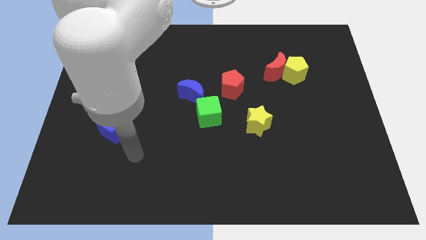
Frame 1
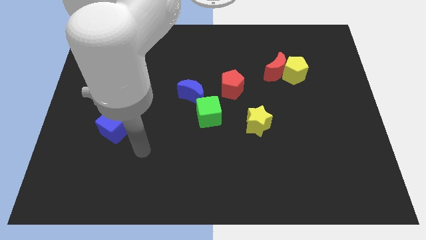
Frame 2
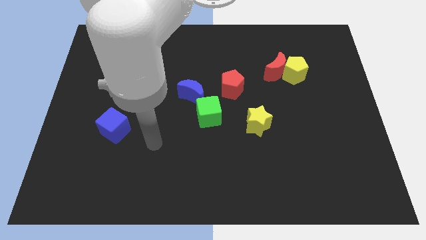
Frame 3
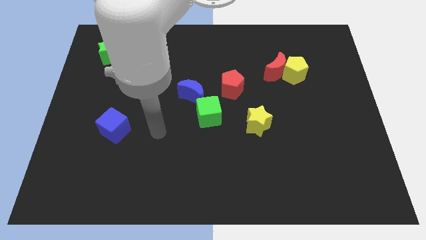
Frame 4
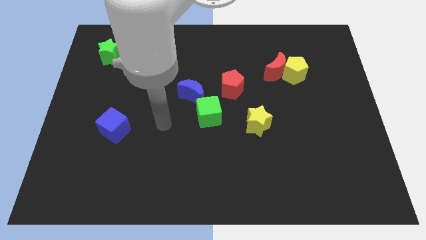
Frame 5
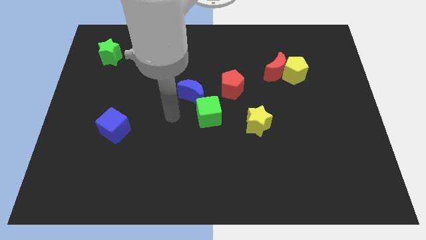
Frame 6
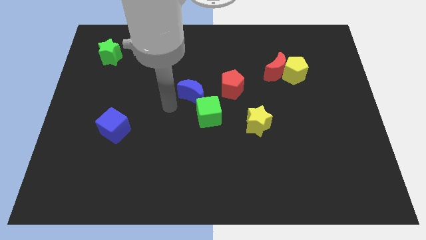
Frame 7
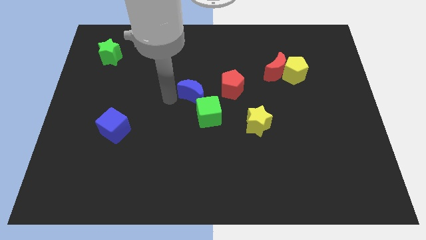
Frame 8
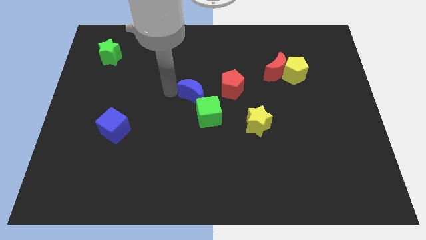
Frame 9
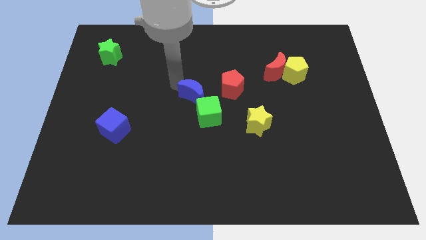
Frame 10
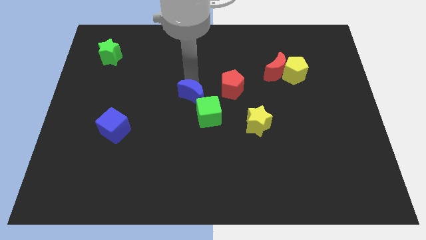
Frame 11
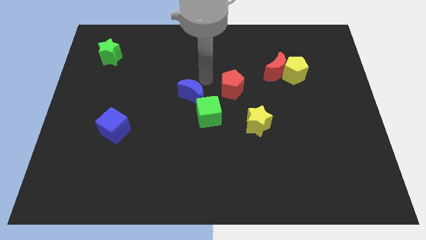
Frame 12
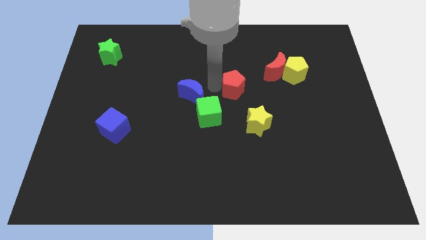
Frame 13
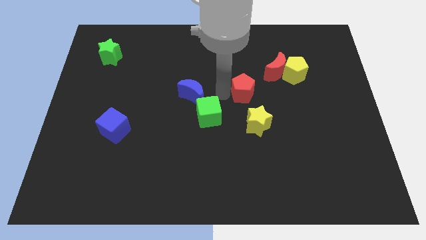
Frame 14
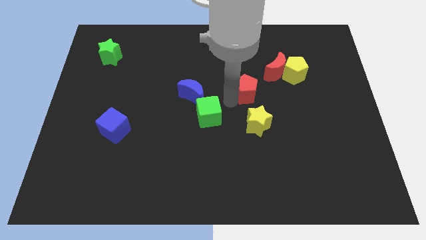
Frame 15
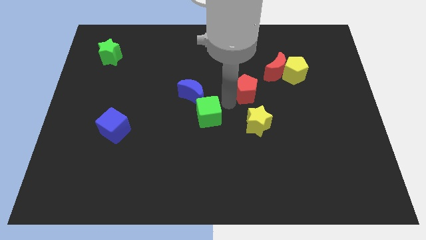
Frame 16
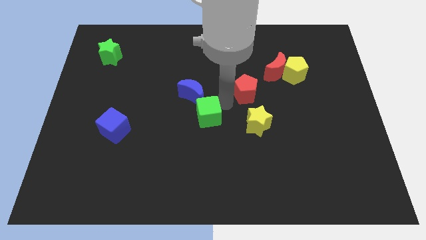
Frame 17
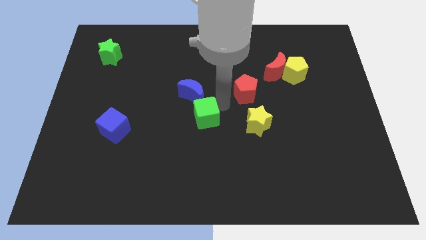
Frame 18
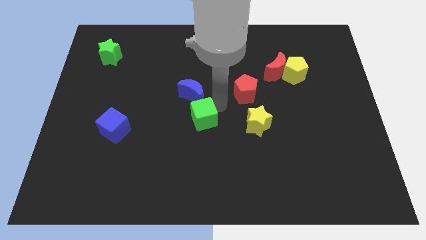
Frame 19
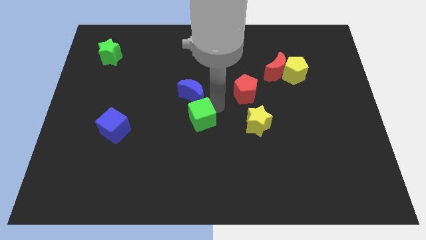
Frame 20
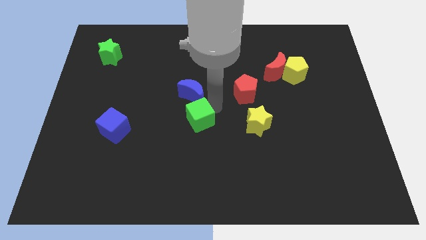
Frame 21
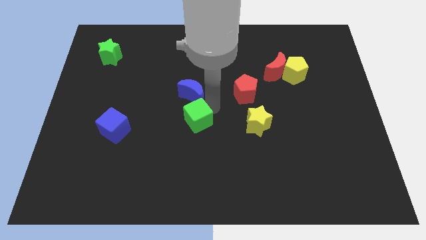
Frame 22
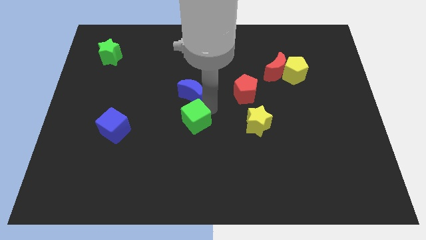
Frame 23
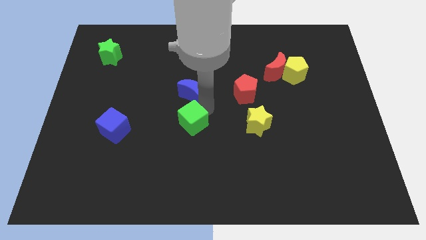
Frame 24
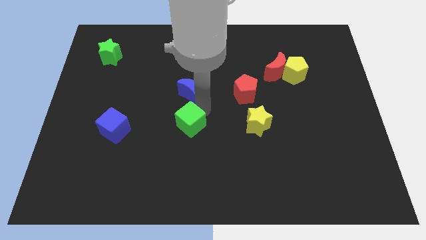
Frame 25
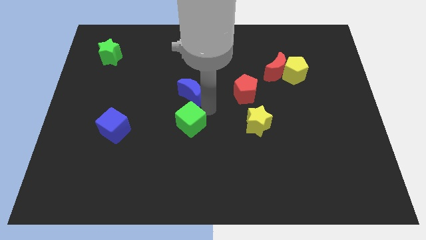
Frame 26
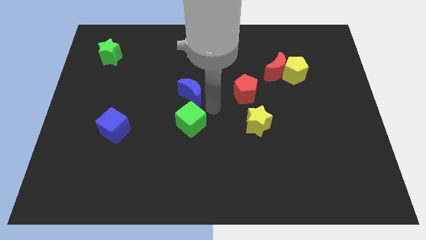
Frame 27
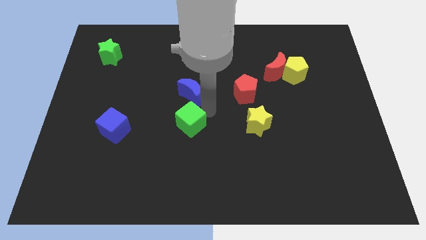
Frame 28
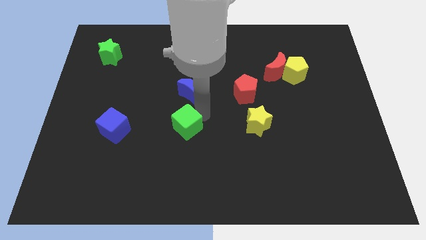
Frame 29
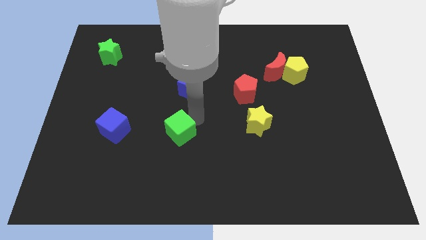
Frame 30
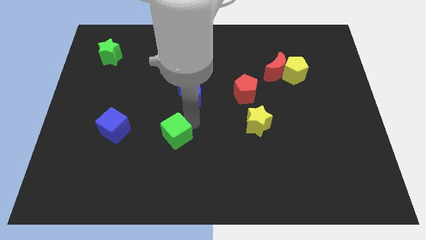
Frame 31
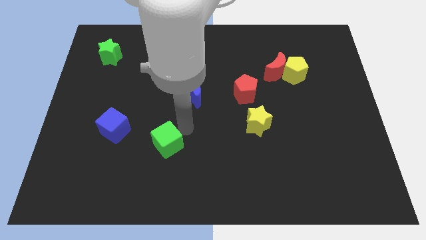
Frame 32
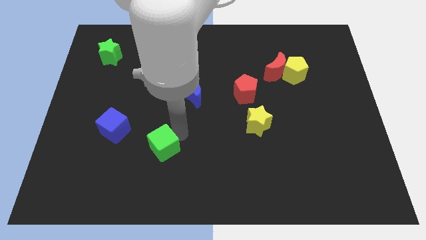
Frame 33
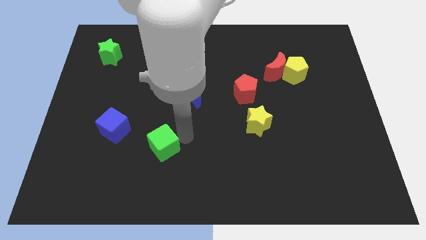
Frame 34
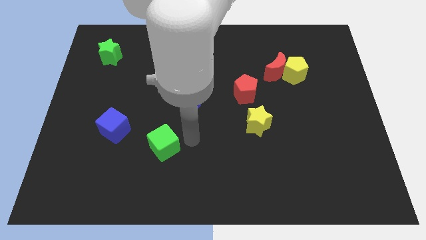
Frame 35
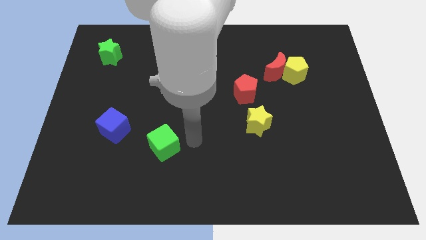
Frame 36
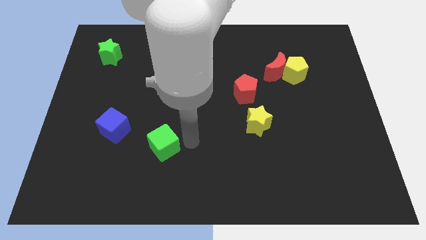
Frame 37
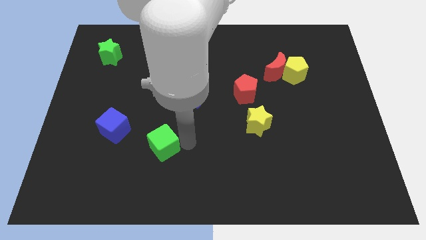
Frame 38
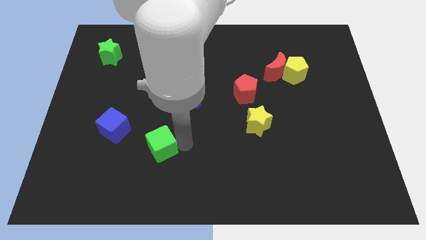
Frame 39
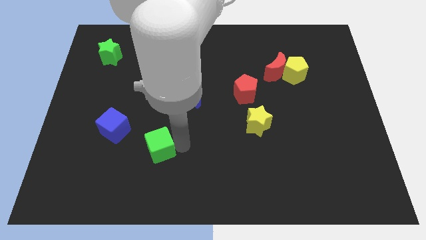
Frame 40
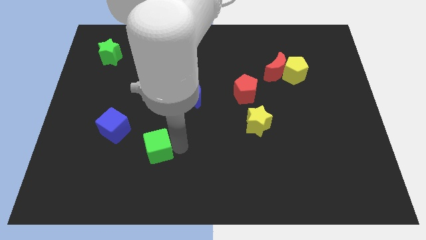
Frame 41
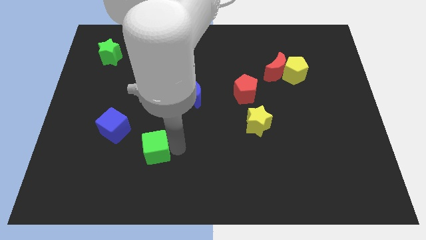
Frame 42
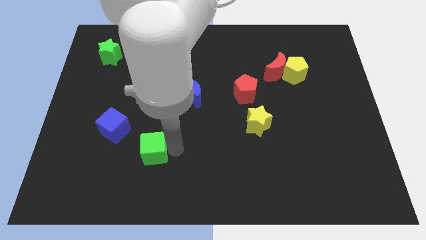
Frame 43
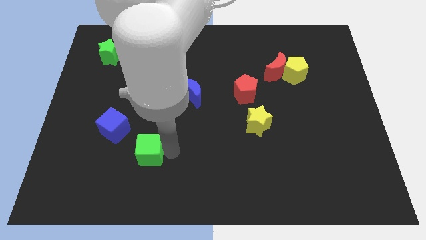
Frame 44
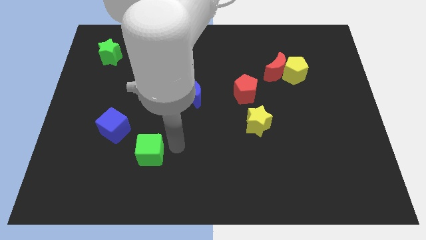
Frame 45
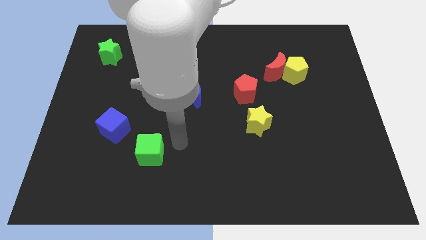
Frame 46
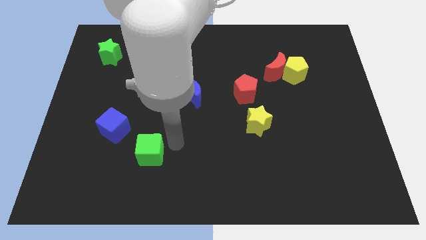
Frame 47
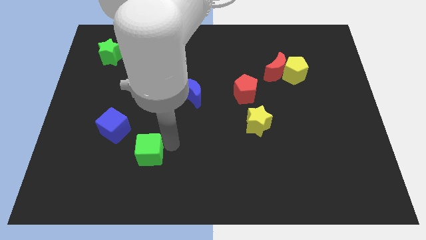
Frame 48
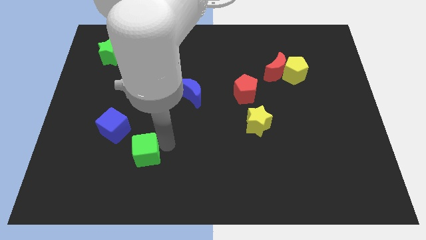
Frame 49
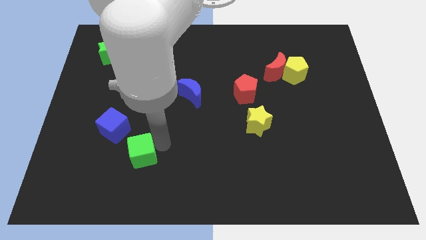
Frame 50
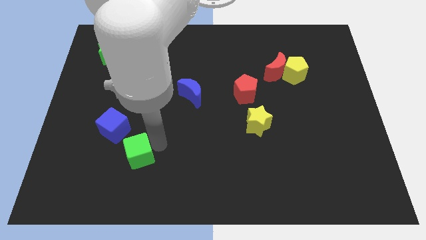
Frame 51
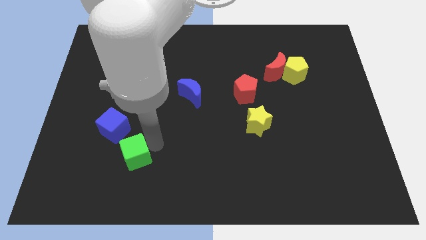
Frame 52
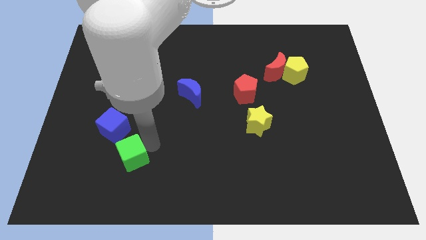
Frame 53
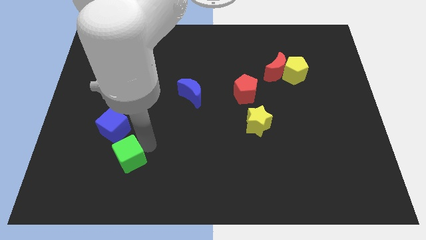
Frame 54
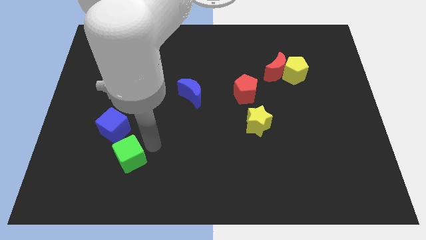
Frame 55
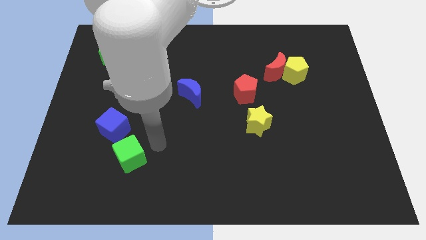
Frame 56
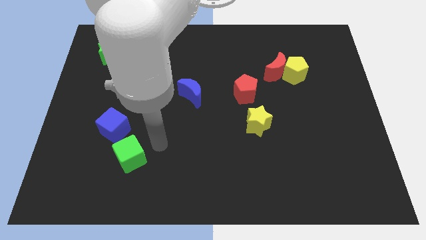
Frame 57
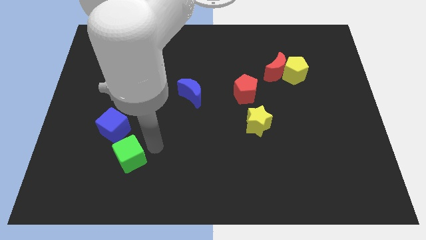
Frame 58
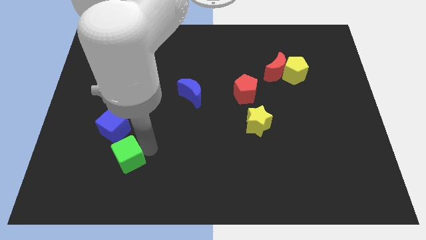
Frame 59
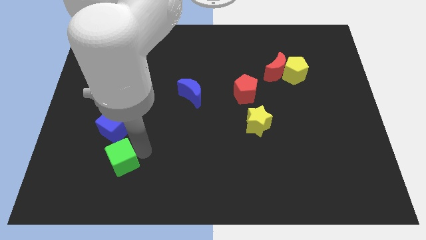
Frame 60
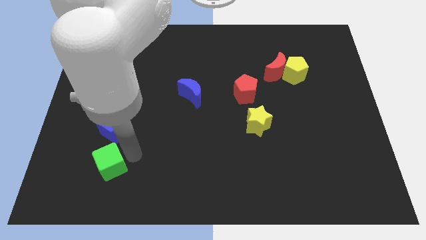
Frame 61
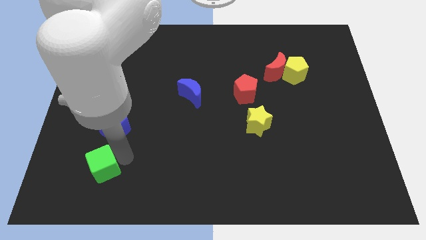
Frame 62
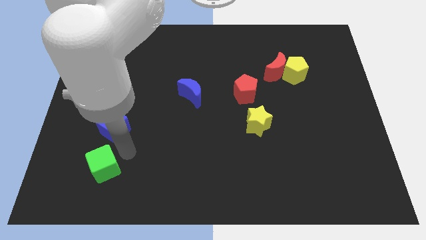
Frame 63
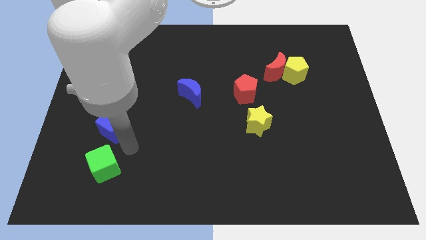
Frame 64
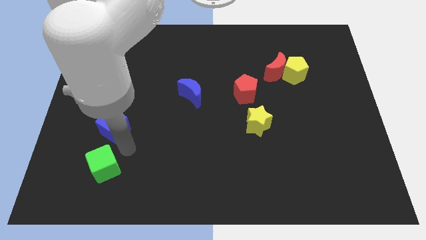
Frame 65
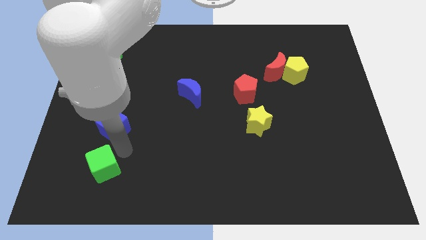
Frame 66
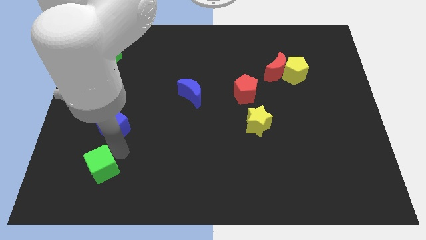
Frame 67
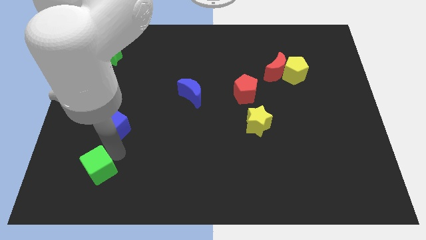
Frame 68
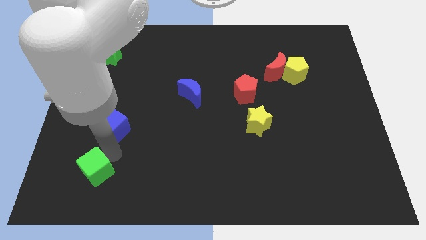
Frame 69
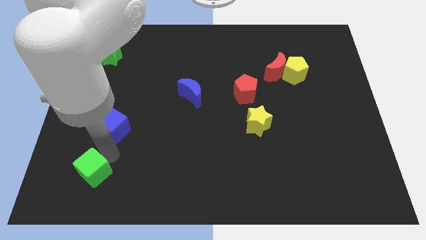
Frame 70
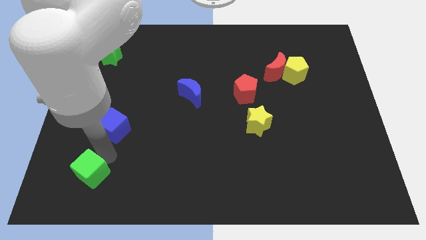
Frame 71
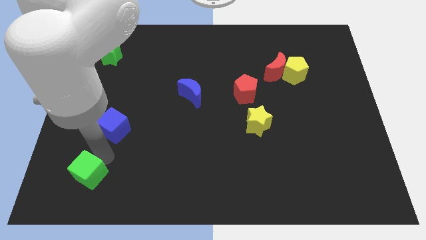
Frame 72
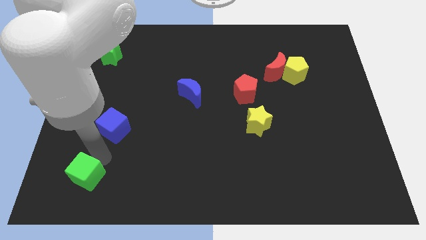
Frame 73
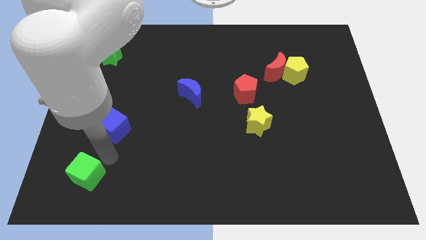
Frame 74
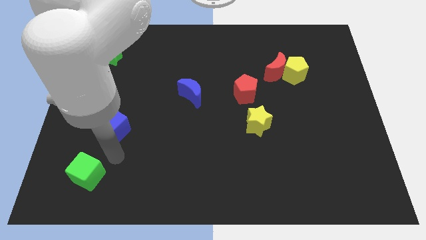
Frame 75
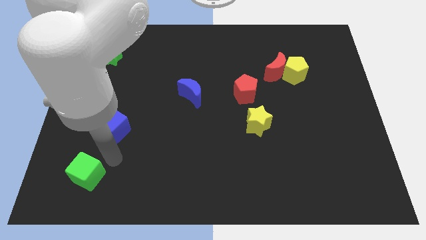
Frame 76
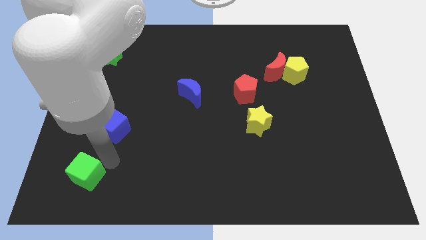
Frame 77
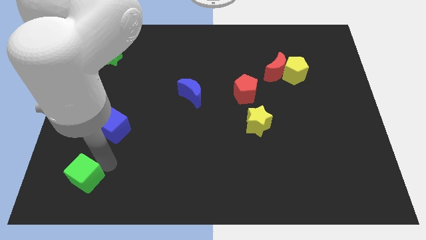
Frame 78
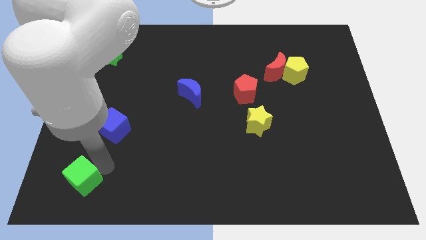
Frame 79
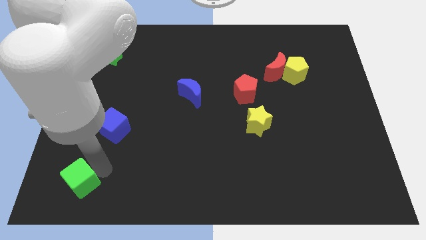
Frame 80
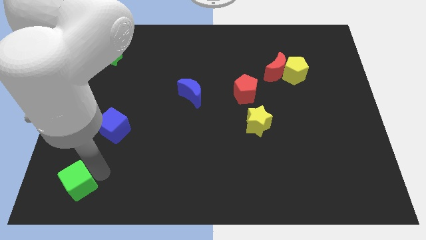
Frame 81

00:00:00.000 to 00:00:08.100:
move the green cube to the lower left corner
